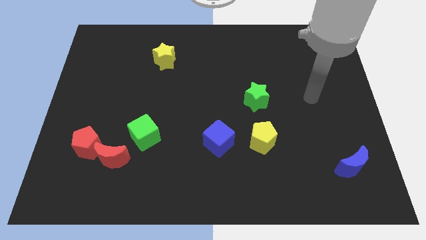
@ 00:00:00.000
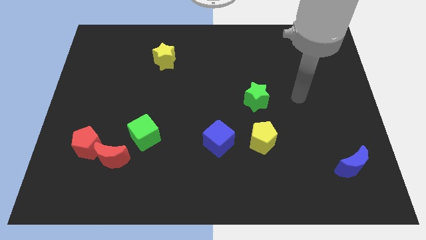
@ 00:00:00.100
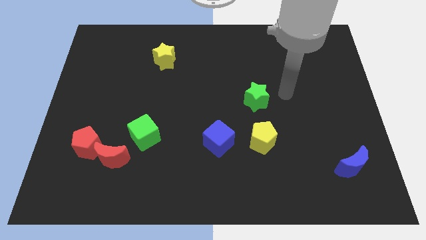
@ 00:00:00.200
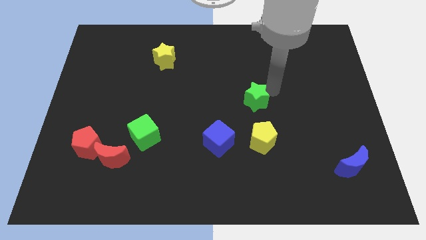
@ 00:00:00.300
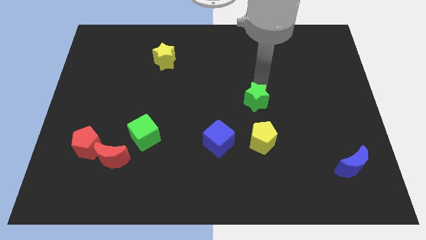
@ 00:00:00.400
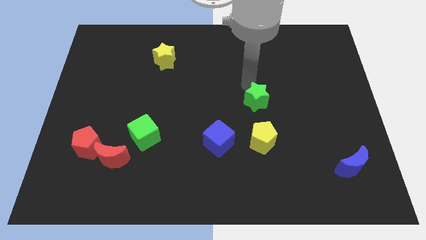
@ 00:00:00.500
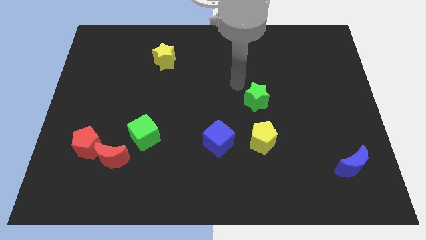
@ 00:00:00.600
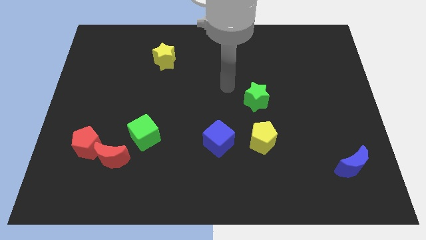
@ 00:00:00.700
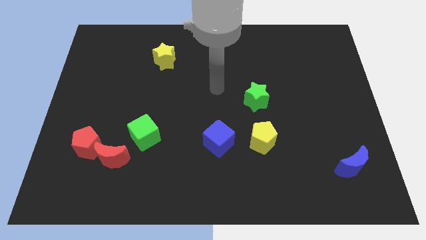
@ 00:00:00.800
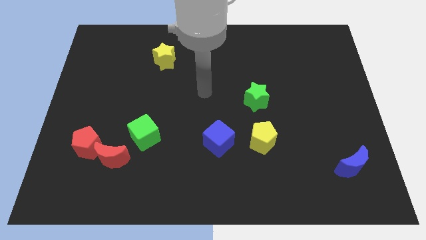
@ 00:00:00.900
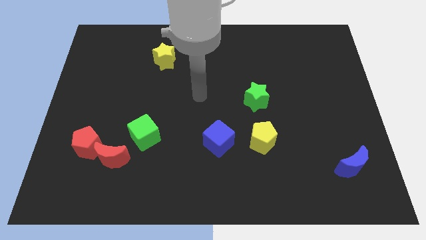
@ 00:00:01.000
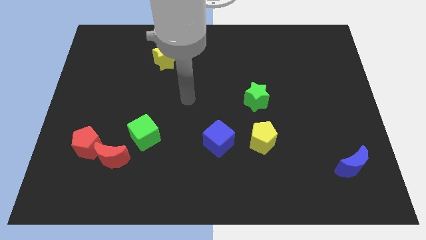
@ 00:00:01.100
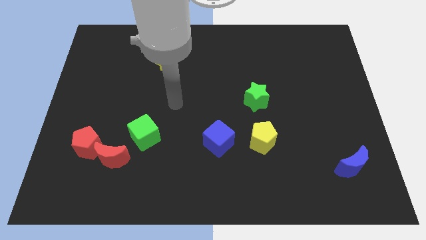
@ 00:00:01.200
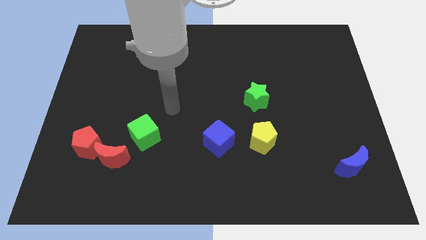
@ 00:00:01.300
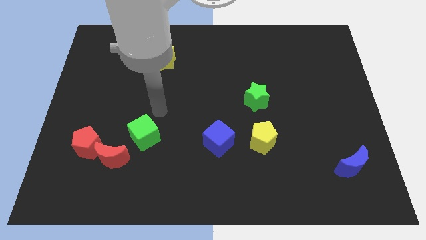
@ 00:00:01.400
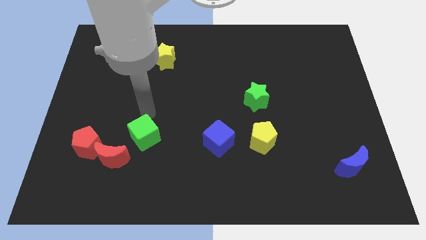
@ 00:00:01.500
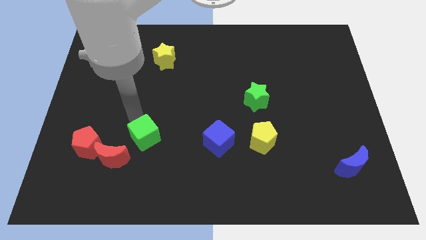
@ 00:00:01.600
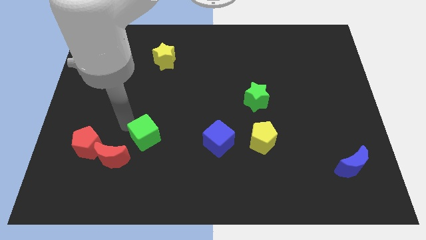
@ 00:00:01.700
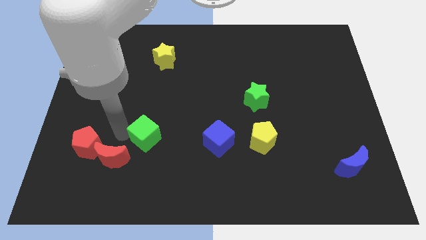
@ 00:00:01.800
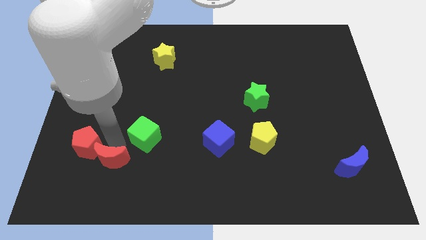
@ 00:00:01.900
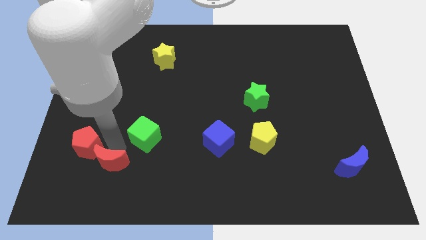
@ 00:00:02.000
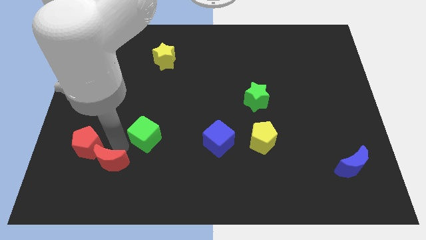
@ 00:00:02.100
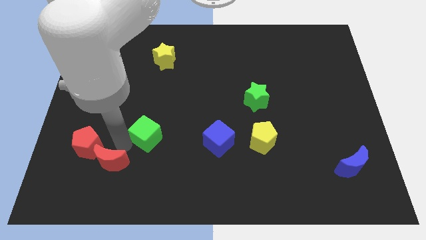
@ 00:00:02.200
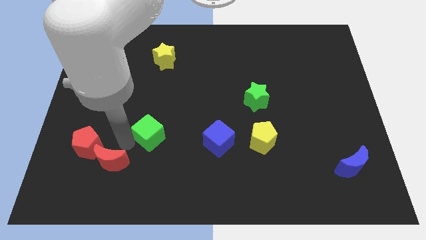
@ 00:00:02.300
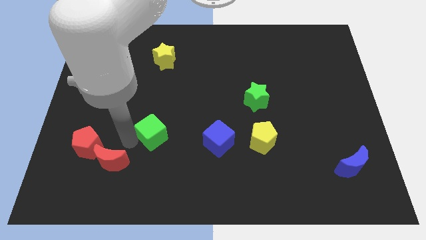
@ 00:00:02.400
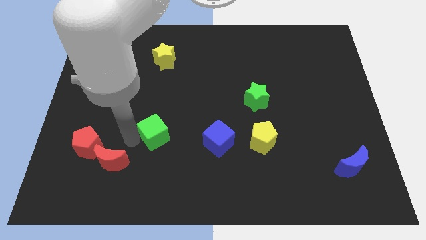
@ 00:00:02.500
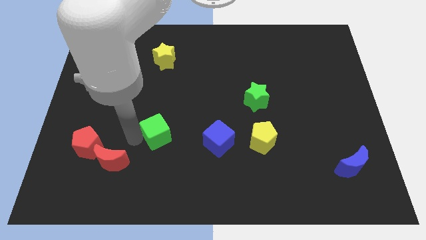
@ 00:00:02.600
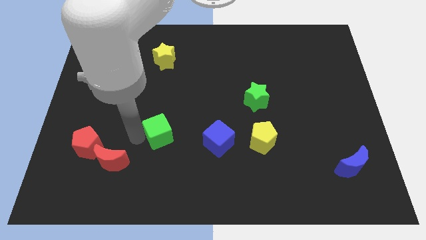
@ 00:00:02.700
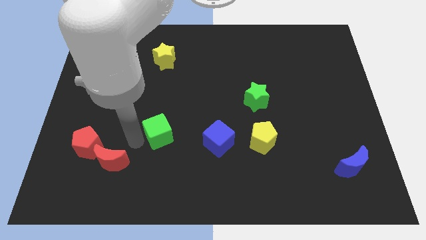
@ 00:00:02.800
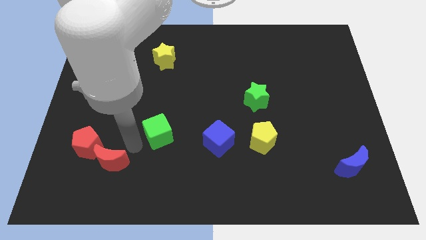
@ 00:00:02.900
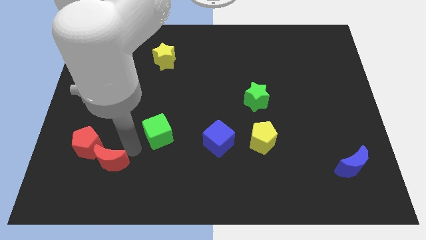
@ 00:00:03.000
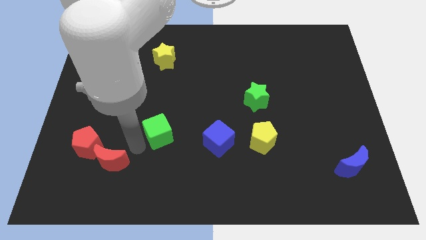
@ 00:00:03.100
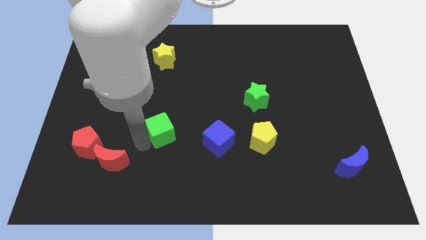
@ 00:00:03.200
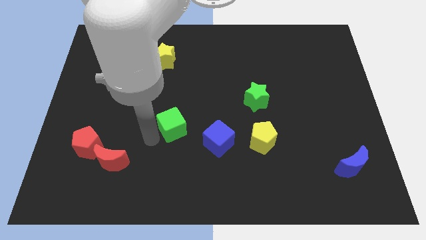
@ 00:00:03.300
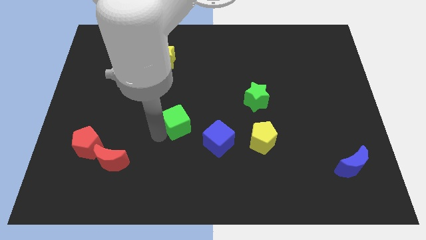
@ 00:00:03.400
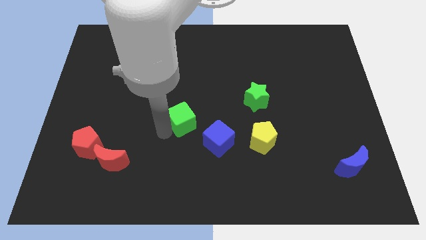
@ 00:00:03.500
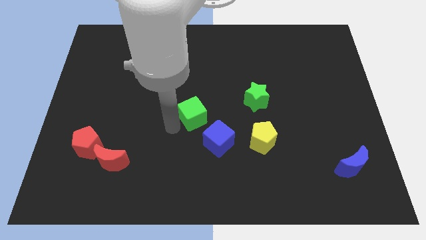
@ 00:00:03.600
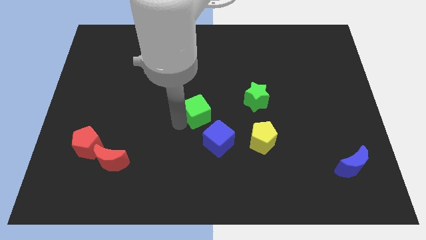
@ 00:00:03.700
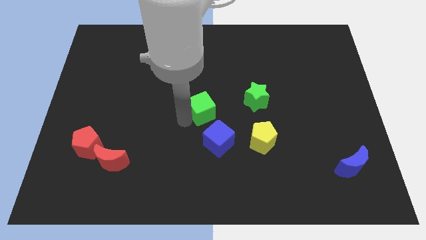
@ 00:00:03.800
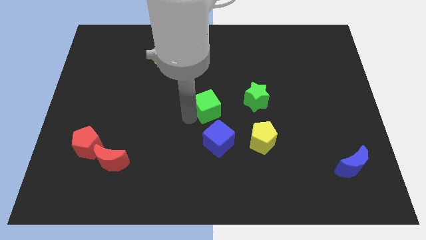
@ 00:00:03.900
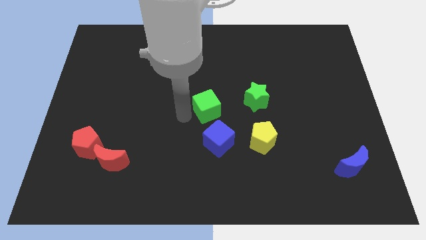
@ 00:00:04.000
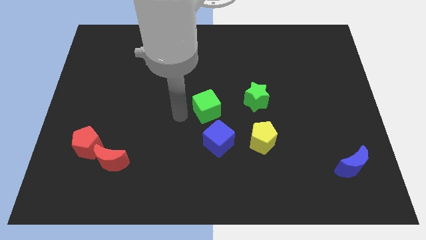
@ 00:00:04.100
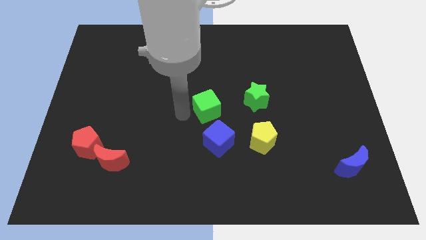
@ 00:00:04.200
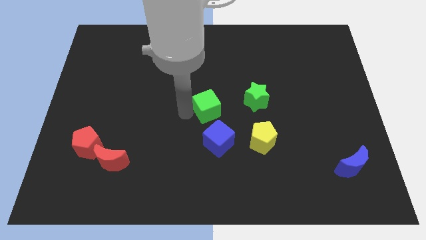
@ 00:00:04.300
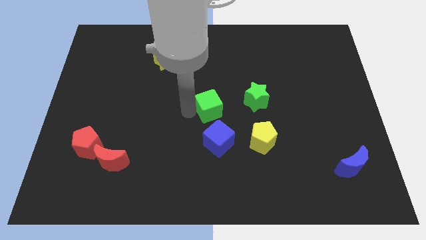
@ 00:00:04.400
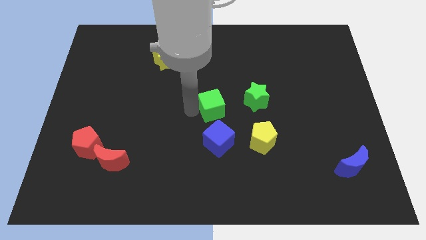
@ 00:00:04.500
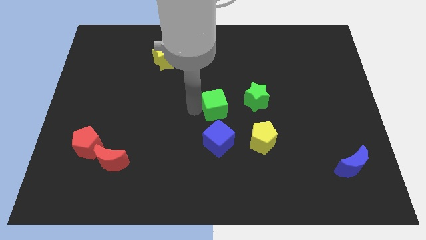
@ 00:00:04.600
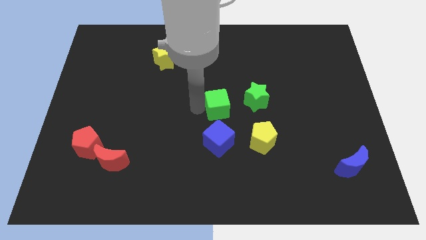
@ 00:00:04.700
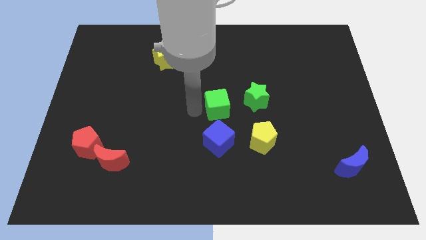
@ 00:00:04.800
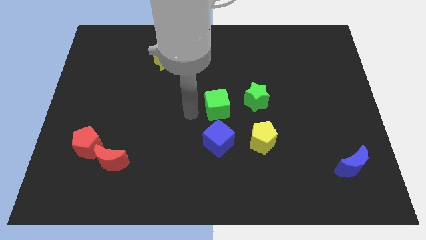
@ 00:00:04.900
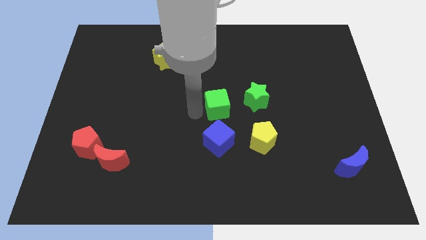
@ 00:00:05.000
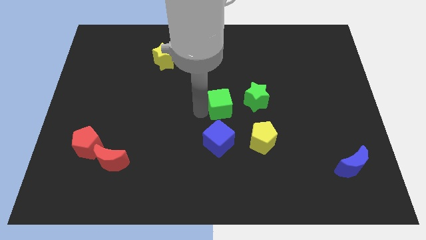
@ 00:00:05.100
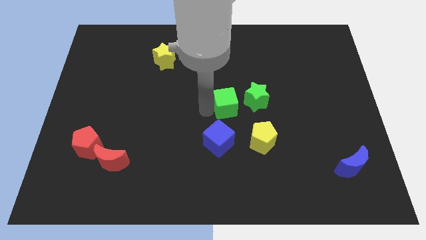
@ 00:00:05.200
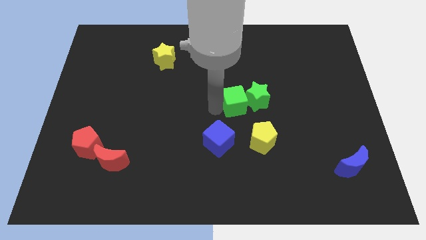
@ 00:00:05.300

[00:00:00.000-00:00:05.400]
push the green cube next to the green star

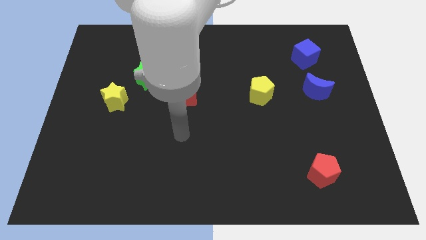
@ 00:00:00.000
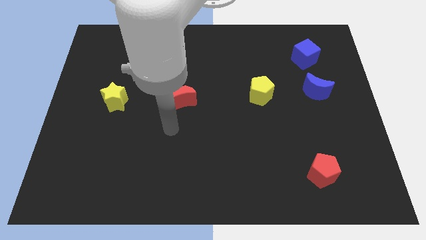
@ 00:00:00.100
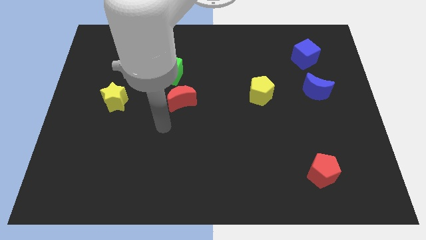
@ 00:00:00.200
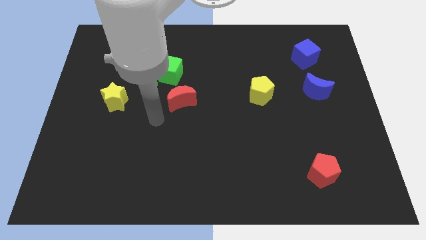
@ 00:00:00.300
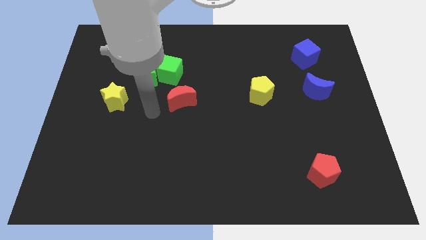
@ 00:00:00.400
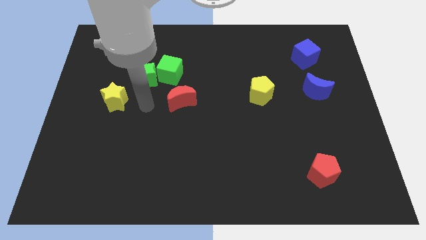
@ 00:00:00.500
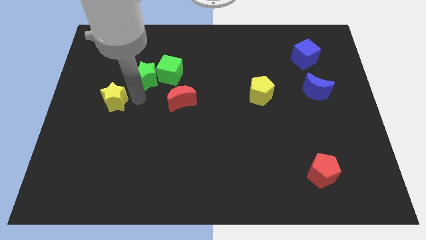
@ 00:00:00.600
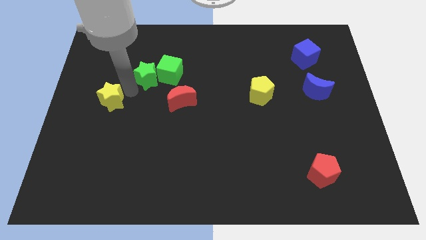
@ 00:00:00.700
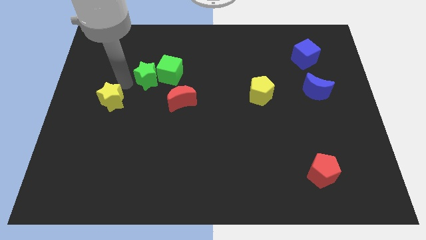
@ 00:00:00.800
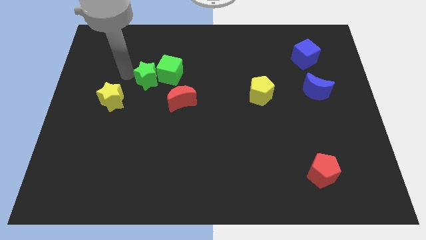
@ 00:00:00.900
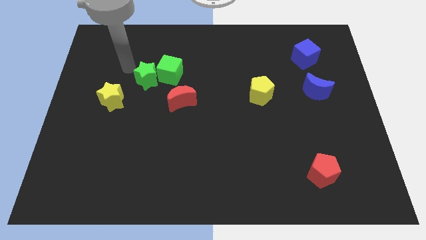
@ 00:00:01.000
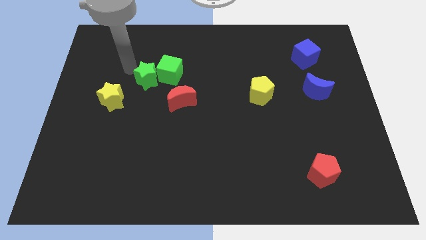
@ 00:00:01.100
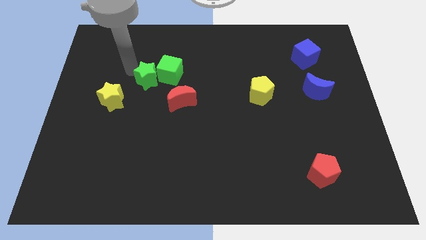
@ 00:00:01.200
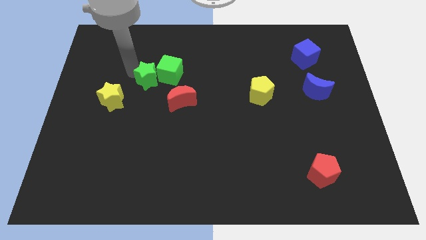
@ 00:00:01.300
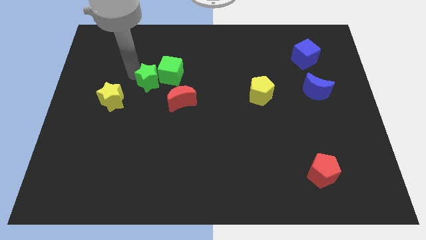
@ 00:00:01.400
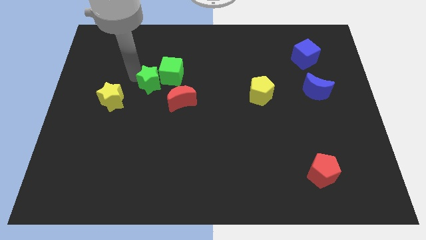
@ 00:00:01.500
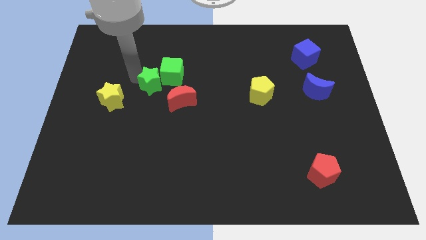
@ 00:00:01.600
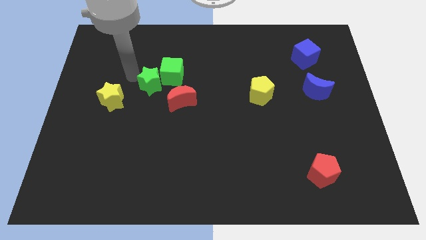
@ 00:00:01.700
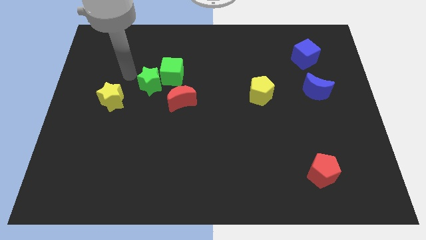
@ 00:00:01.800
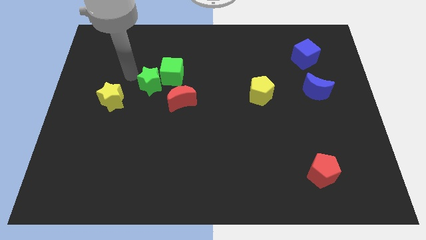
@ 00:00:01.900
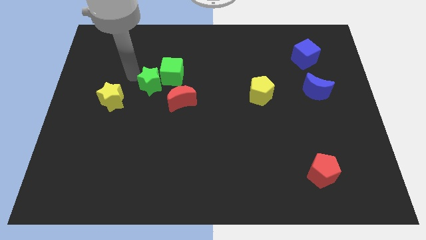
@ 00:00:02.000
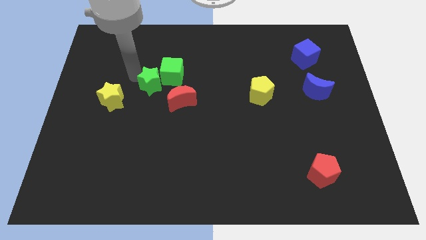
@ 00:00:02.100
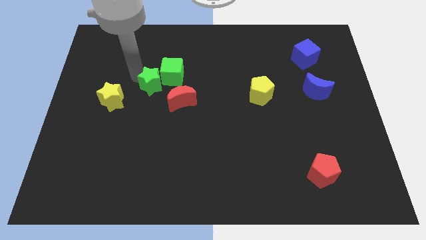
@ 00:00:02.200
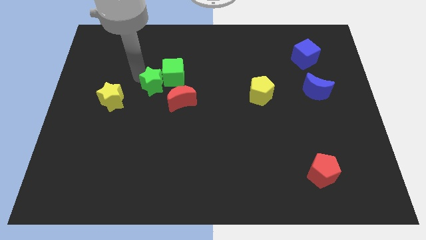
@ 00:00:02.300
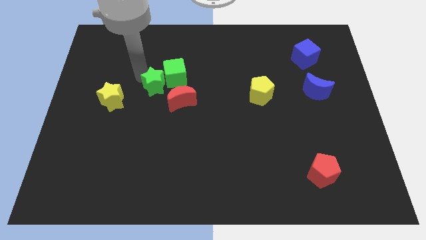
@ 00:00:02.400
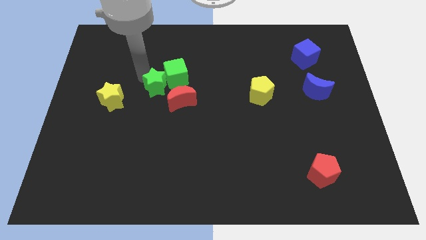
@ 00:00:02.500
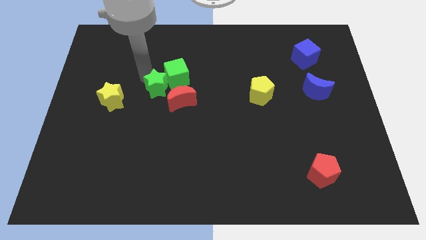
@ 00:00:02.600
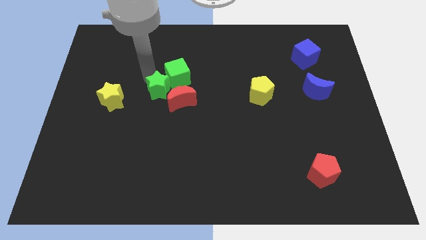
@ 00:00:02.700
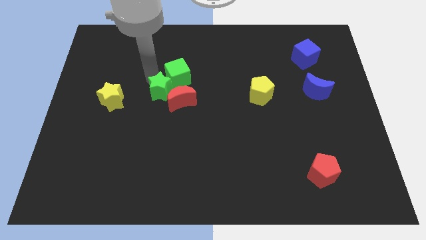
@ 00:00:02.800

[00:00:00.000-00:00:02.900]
slide the green star towards the red moon
